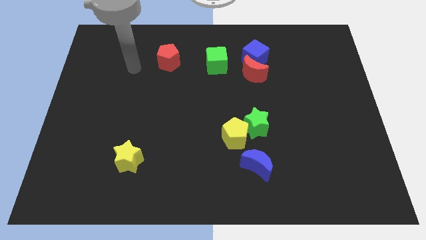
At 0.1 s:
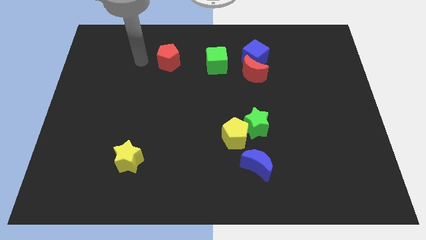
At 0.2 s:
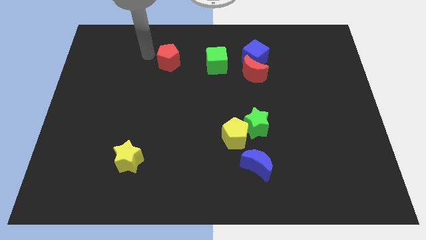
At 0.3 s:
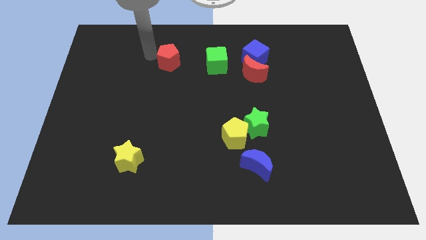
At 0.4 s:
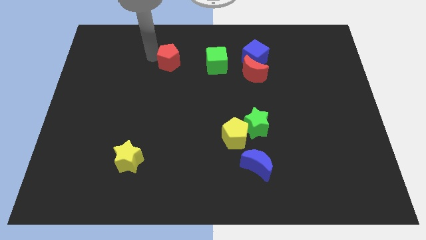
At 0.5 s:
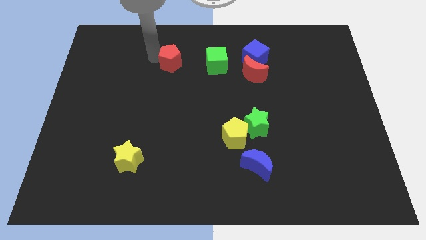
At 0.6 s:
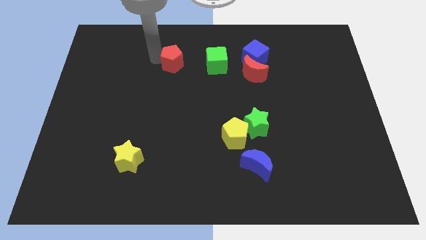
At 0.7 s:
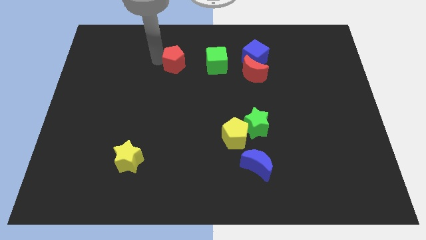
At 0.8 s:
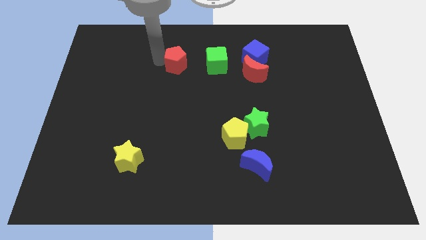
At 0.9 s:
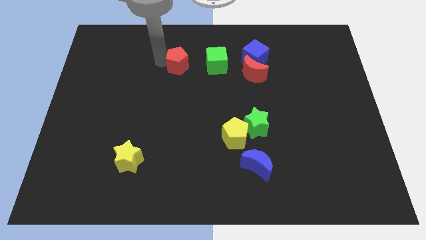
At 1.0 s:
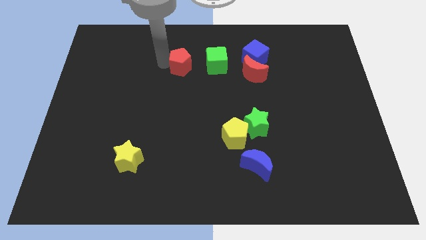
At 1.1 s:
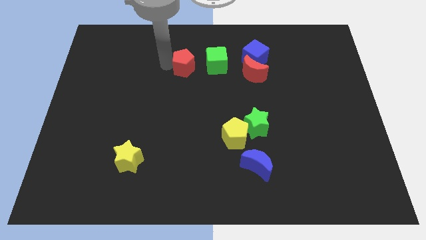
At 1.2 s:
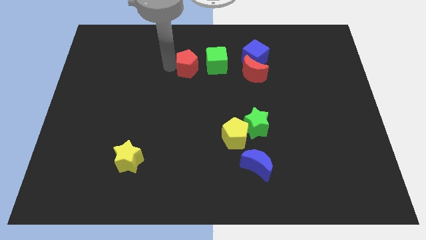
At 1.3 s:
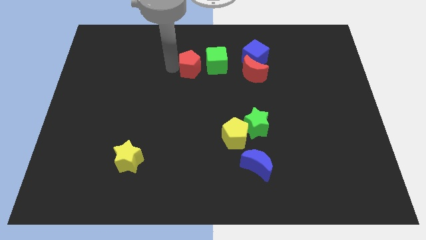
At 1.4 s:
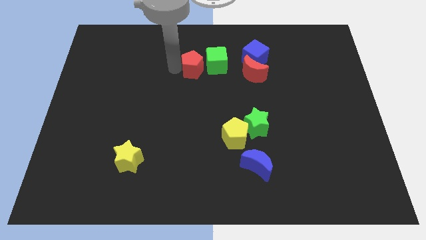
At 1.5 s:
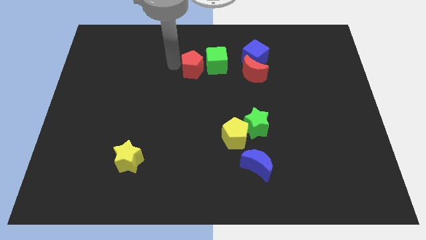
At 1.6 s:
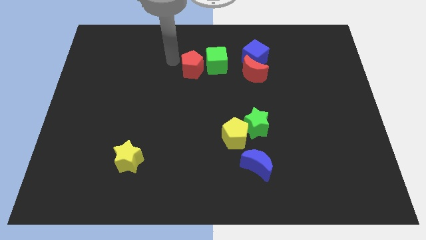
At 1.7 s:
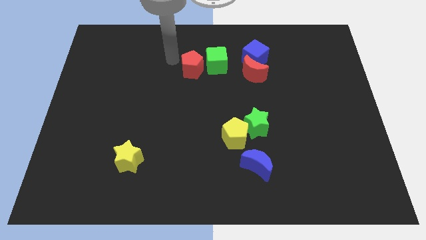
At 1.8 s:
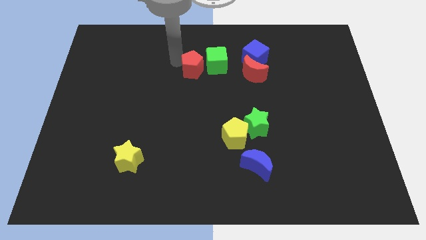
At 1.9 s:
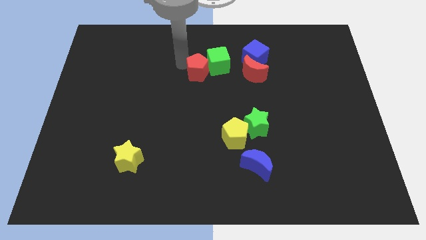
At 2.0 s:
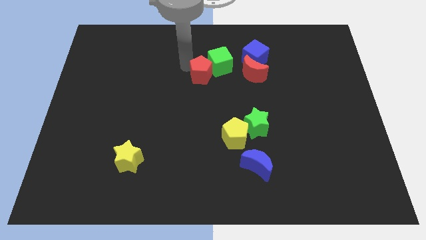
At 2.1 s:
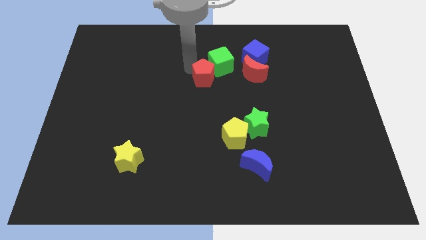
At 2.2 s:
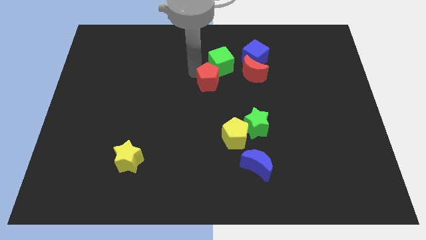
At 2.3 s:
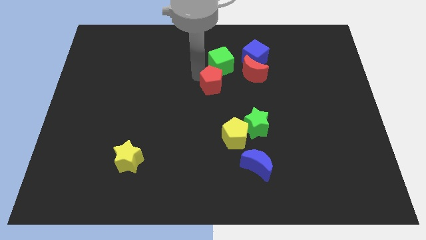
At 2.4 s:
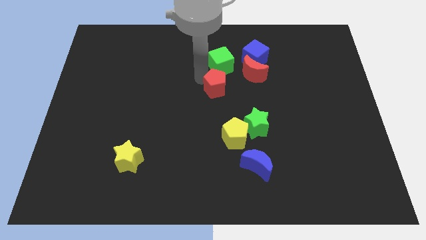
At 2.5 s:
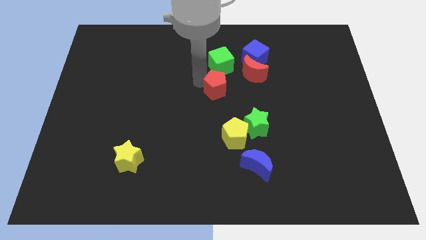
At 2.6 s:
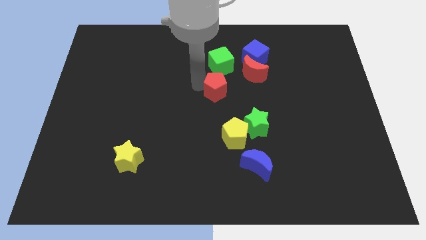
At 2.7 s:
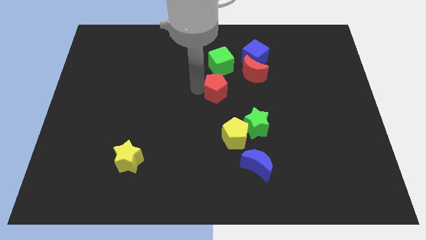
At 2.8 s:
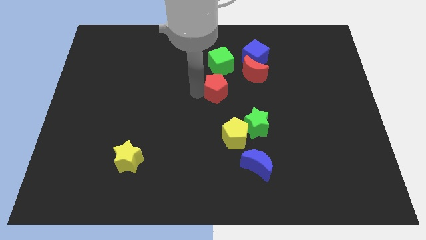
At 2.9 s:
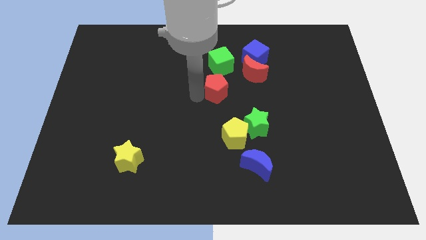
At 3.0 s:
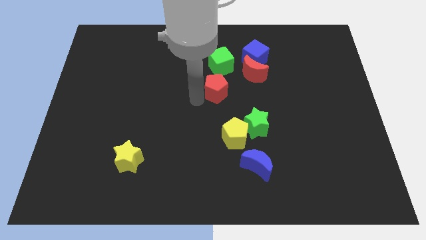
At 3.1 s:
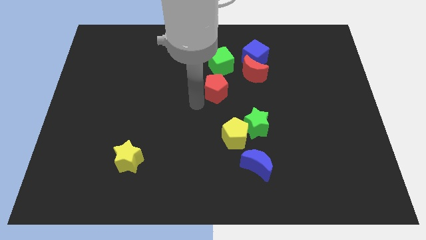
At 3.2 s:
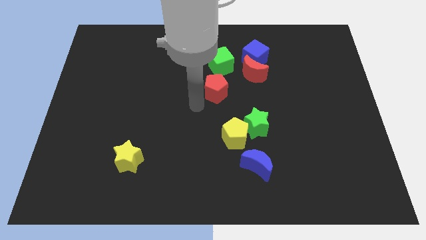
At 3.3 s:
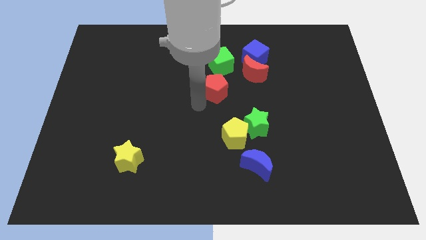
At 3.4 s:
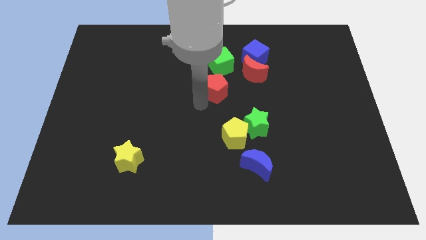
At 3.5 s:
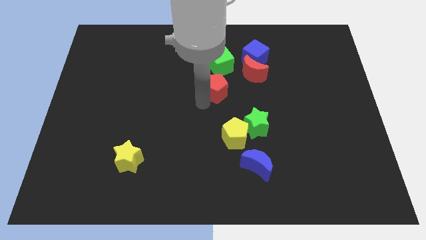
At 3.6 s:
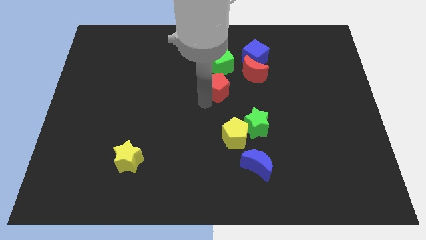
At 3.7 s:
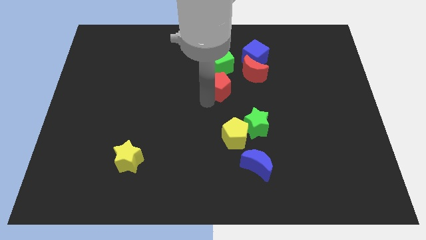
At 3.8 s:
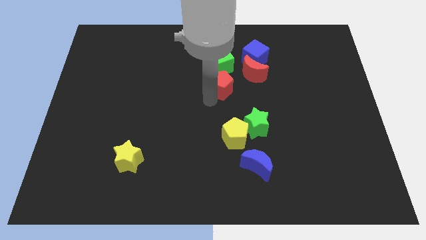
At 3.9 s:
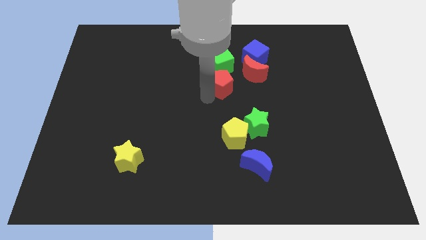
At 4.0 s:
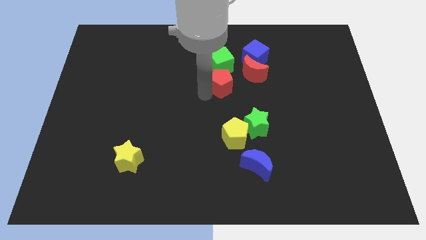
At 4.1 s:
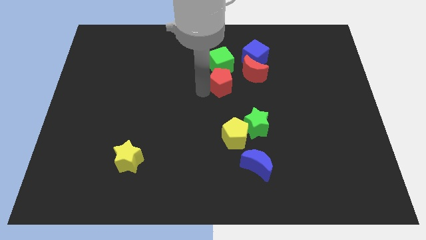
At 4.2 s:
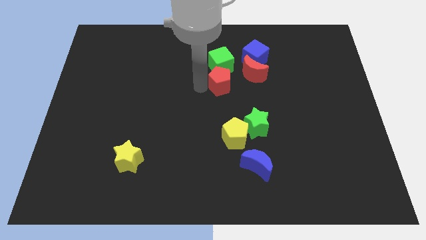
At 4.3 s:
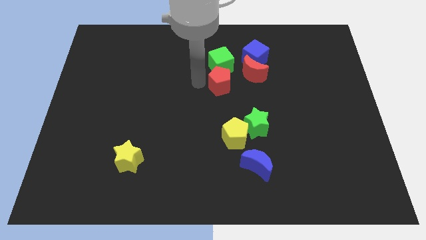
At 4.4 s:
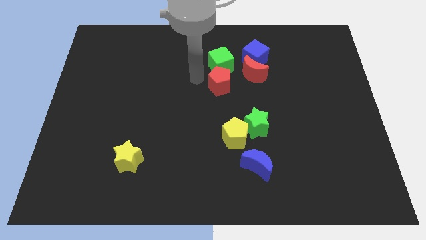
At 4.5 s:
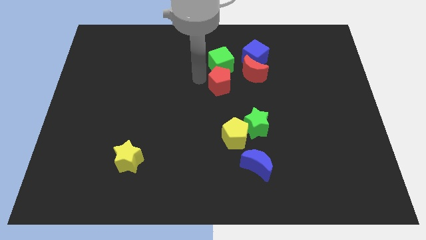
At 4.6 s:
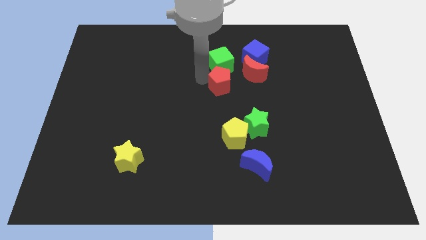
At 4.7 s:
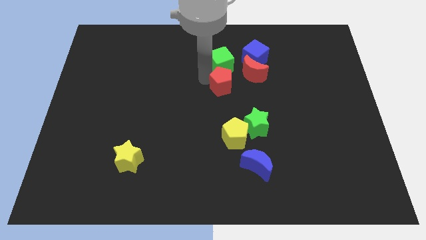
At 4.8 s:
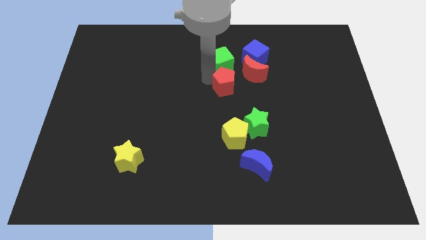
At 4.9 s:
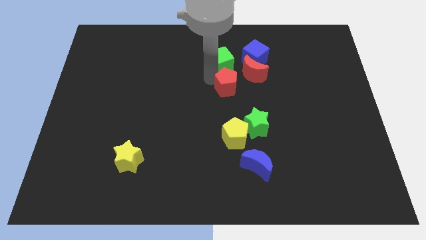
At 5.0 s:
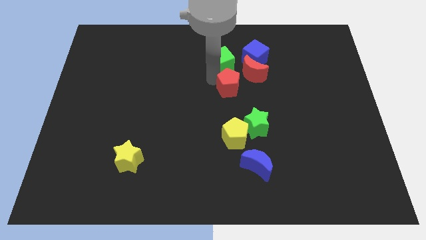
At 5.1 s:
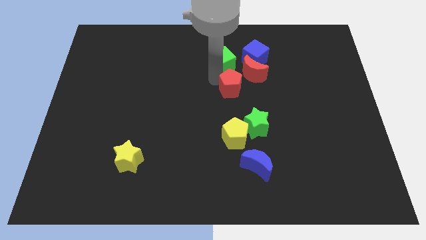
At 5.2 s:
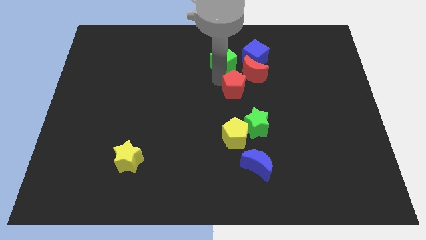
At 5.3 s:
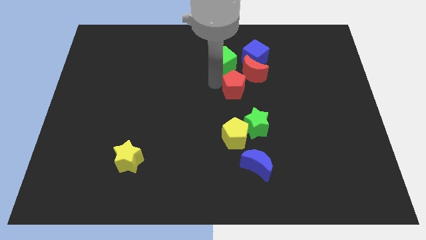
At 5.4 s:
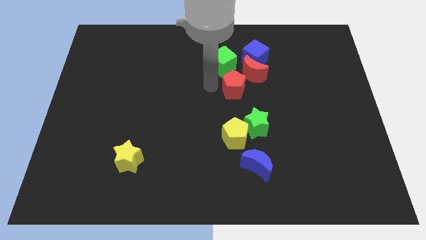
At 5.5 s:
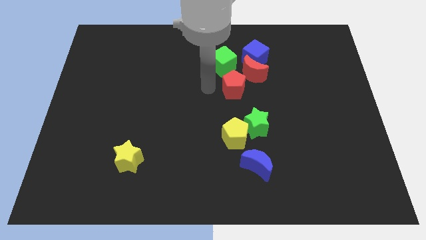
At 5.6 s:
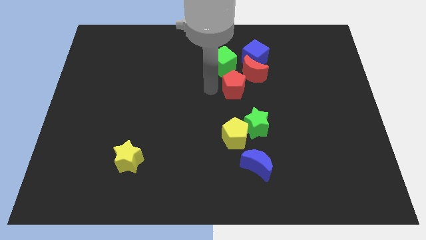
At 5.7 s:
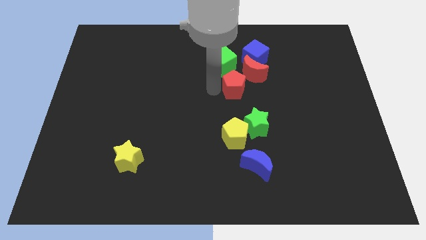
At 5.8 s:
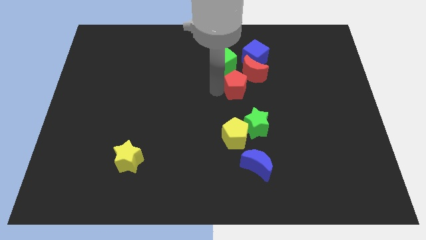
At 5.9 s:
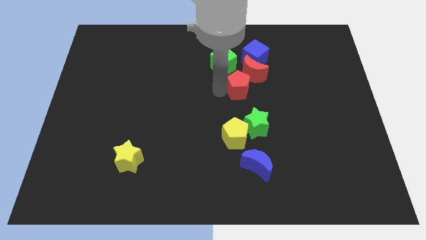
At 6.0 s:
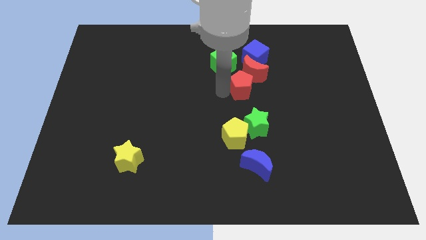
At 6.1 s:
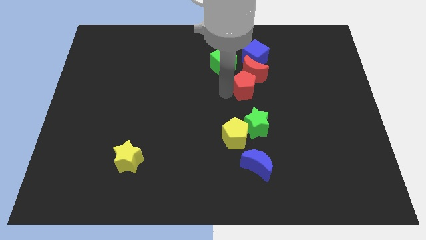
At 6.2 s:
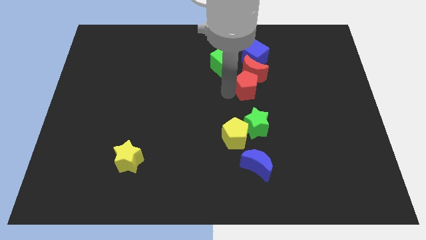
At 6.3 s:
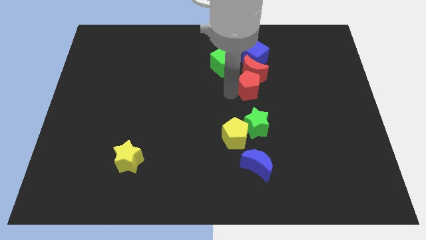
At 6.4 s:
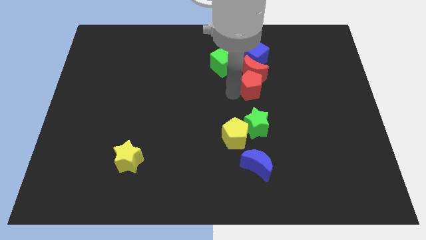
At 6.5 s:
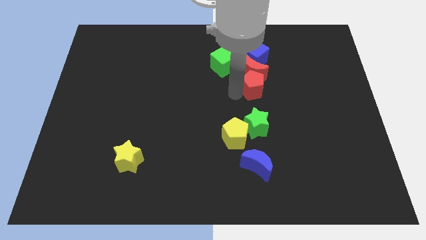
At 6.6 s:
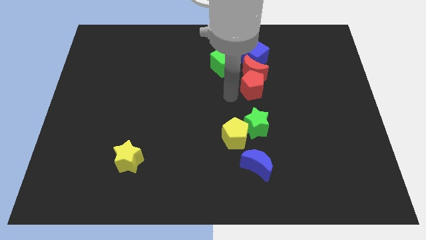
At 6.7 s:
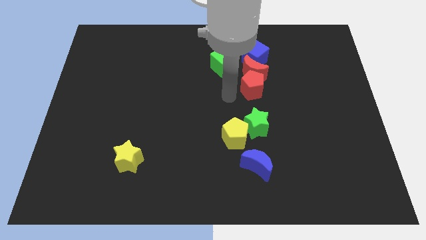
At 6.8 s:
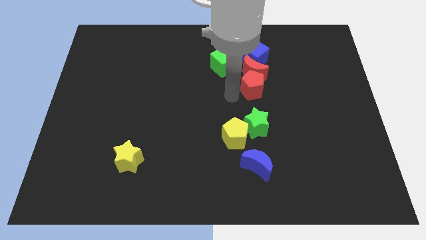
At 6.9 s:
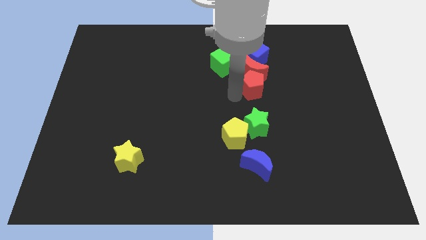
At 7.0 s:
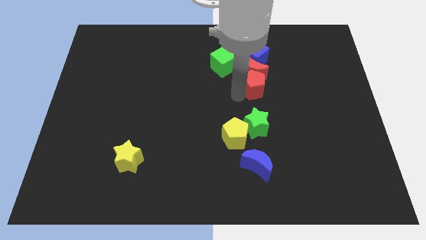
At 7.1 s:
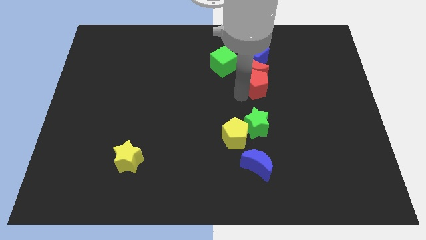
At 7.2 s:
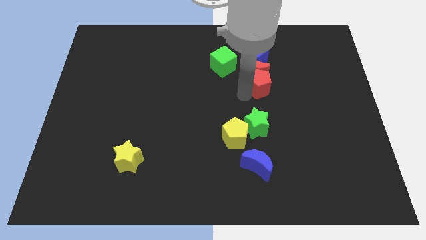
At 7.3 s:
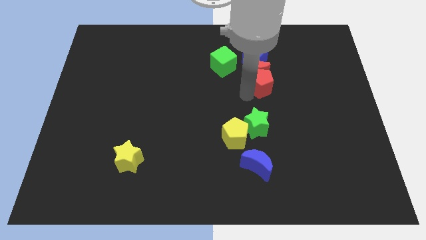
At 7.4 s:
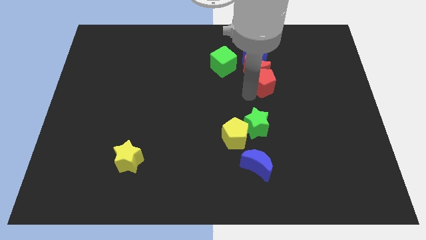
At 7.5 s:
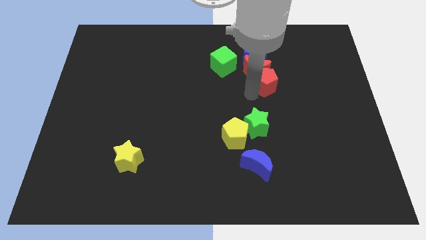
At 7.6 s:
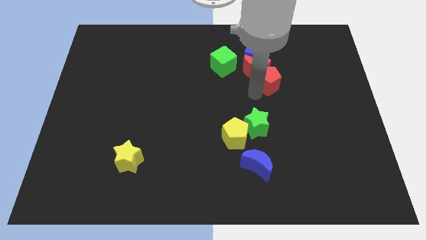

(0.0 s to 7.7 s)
push the red pentagon right of the red moon
